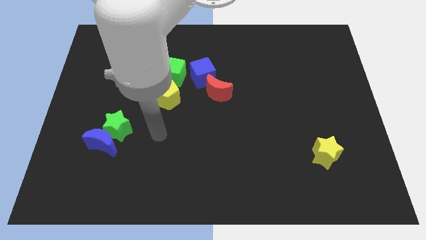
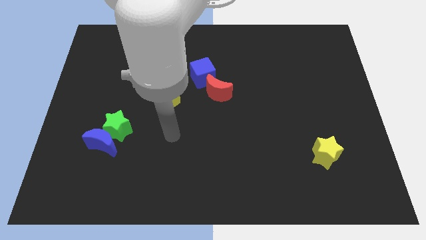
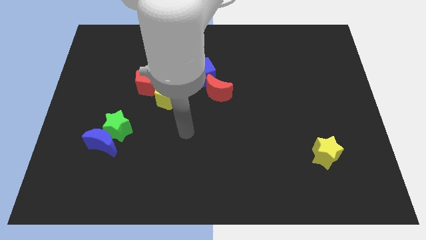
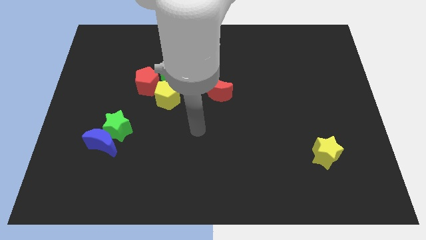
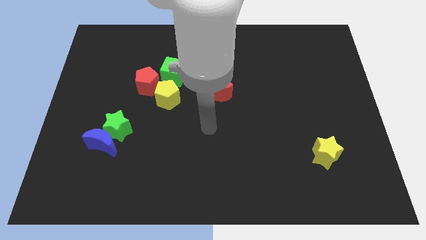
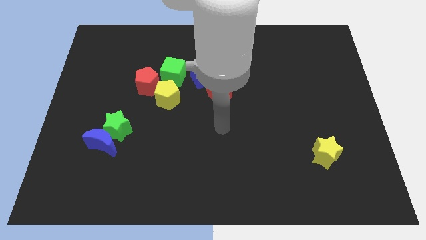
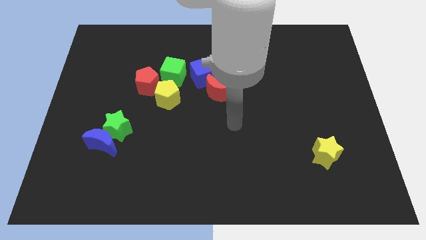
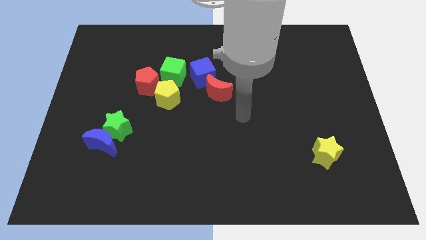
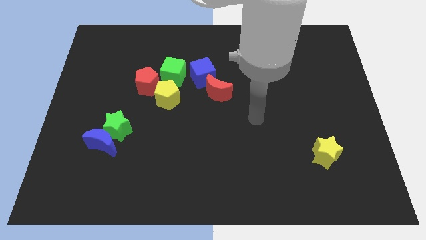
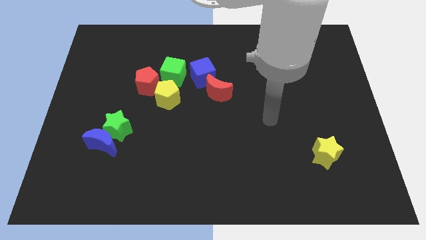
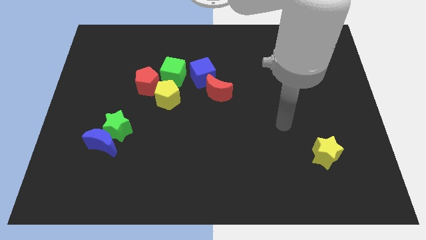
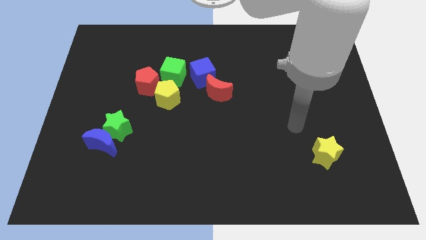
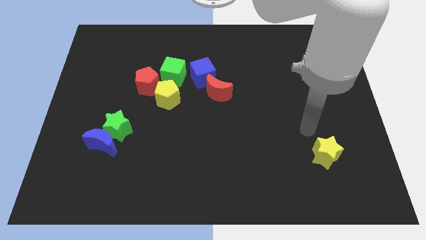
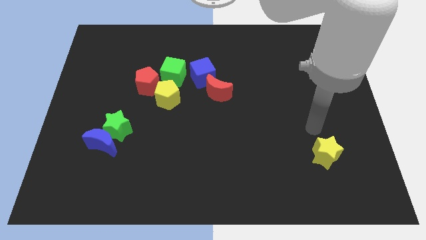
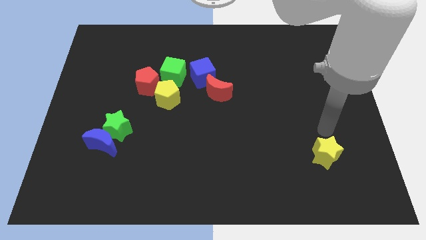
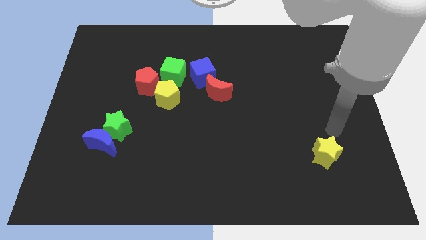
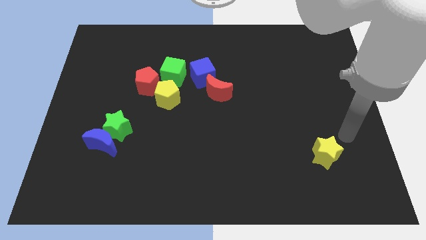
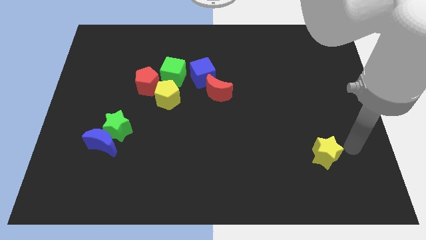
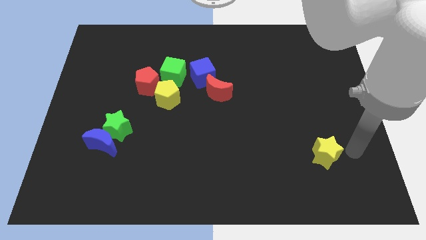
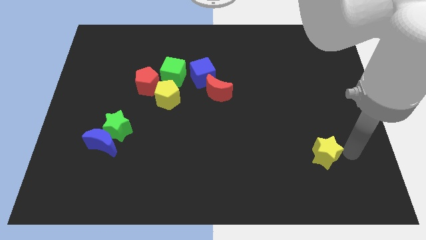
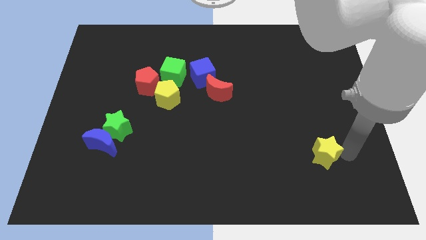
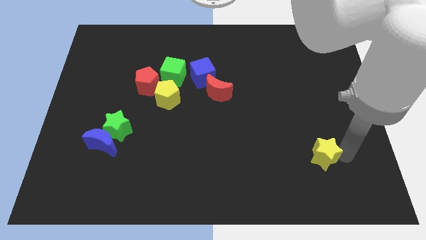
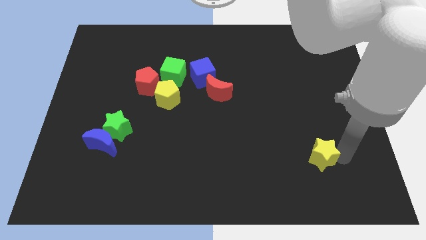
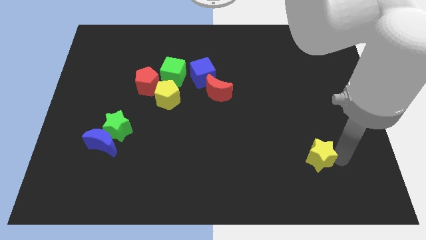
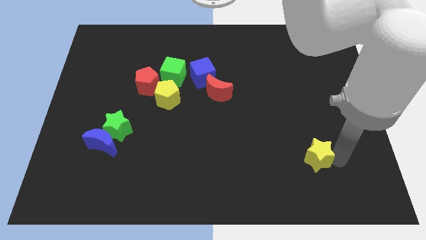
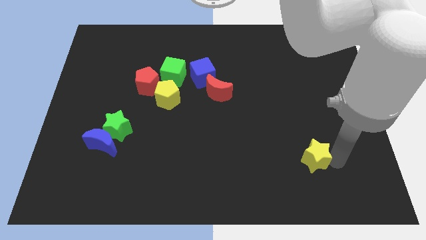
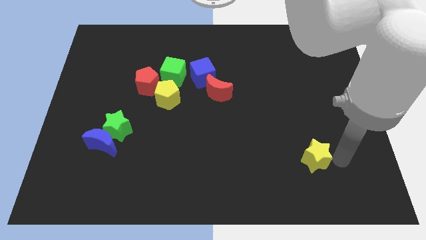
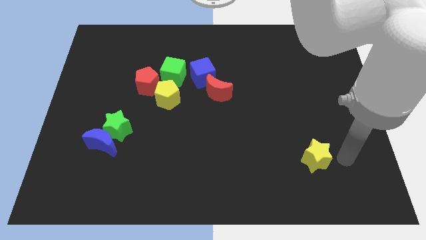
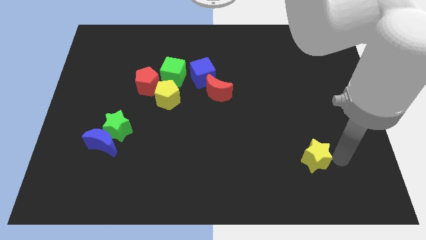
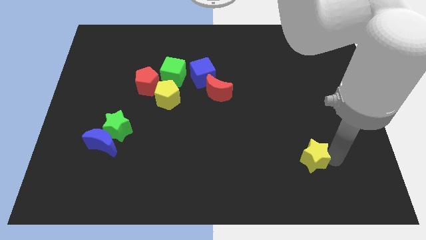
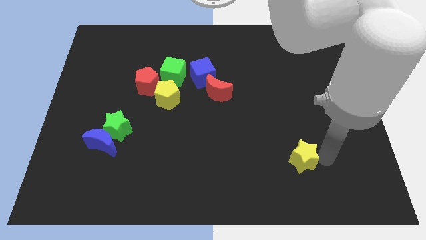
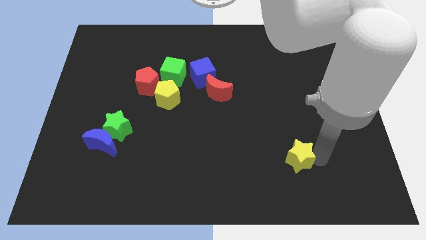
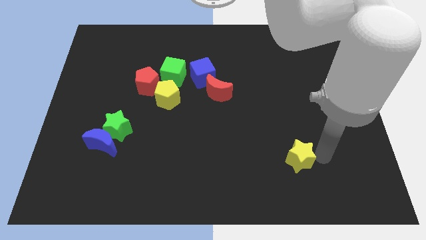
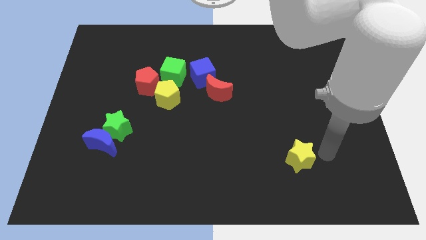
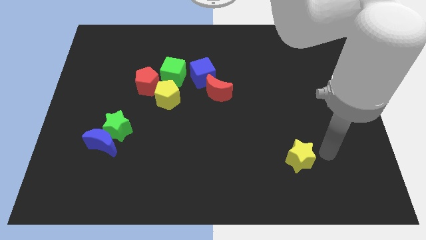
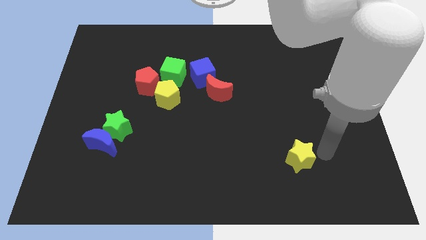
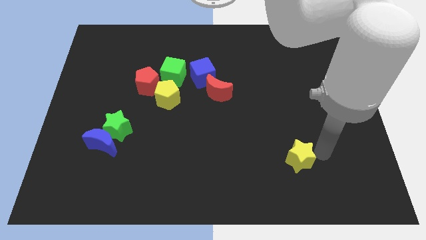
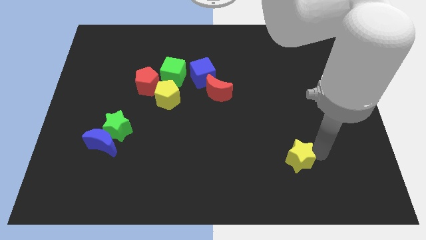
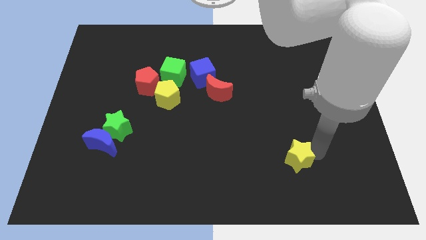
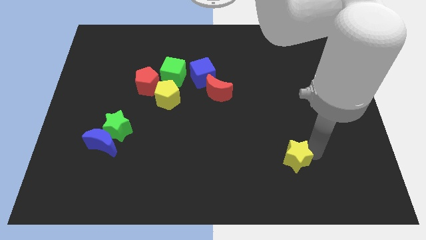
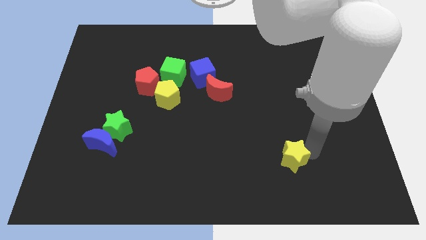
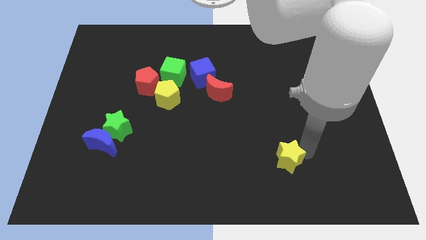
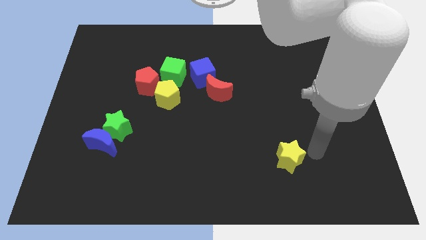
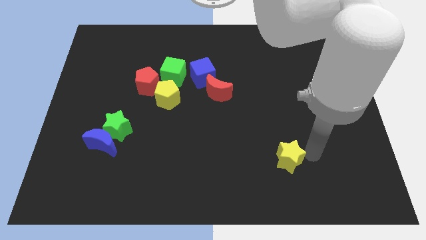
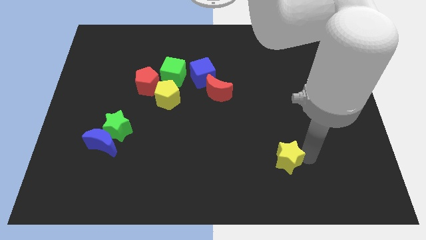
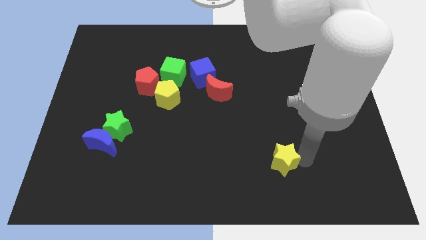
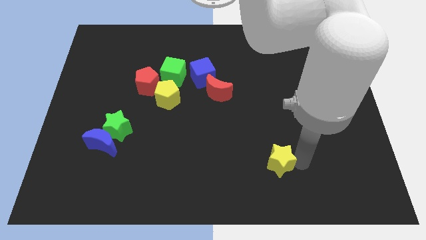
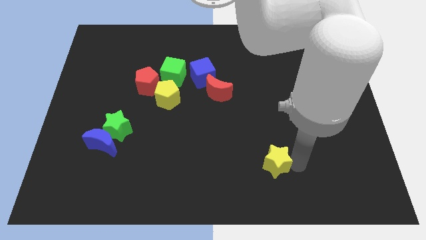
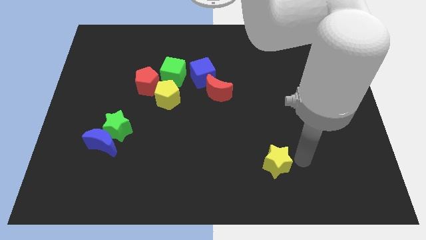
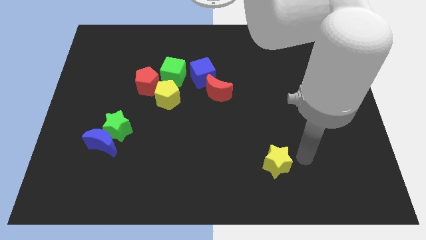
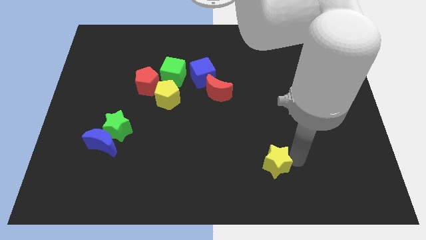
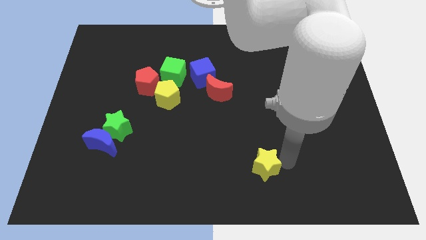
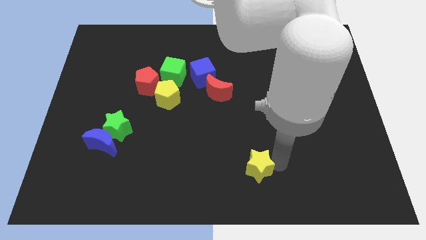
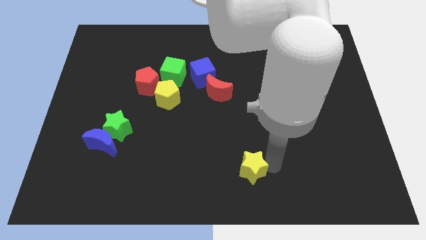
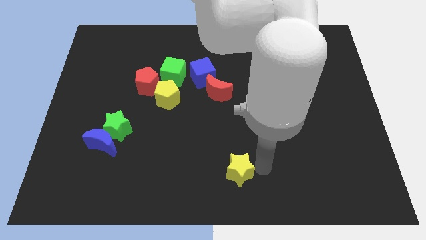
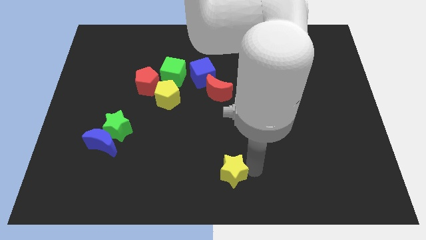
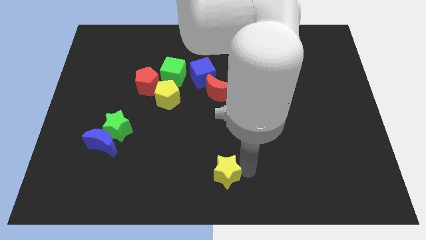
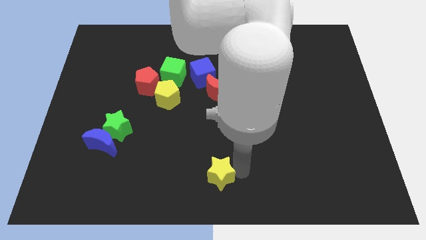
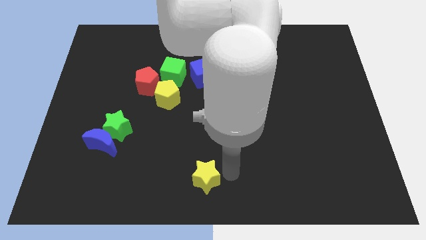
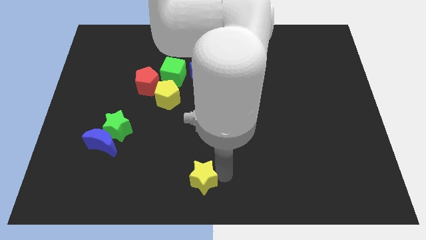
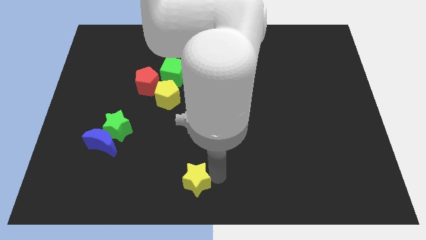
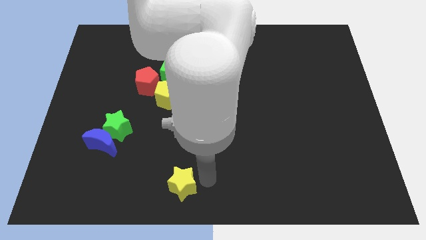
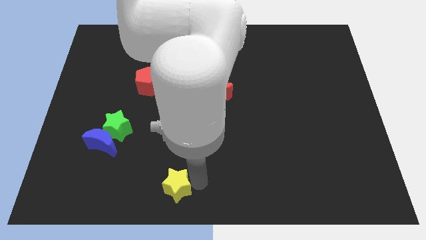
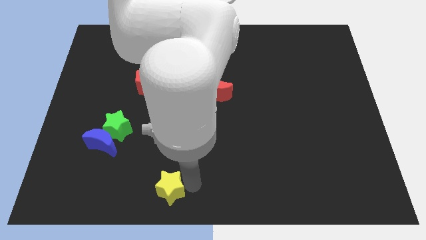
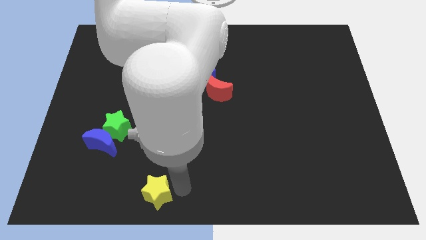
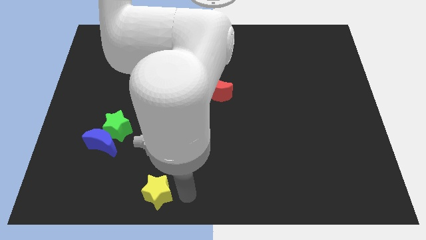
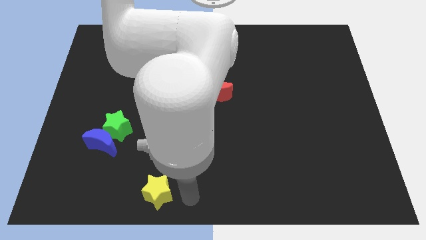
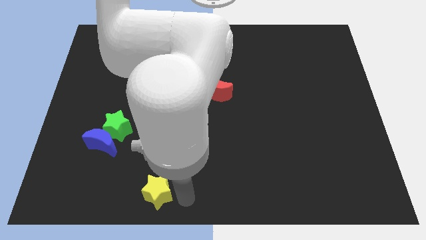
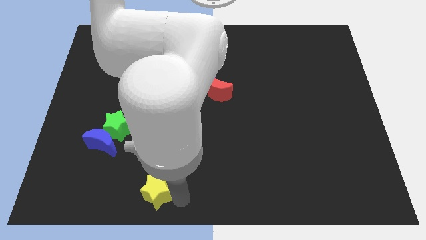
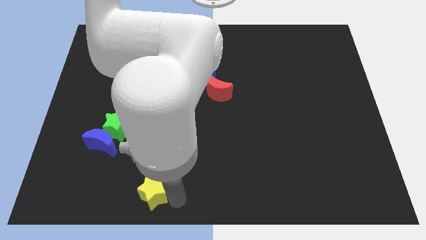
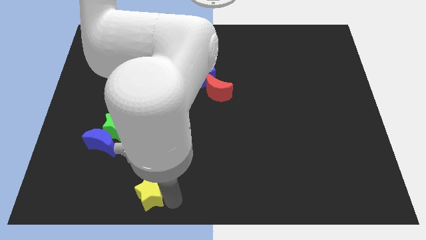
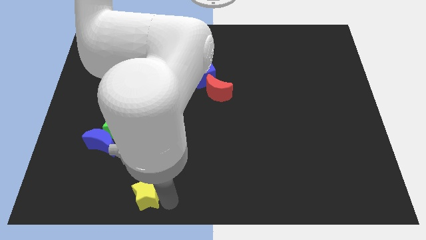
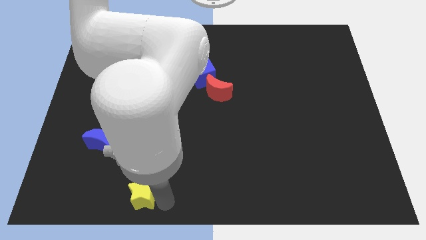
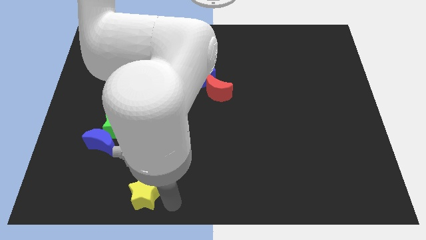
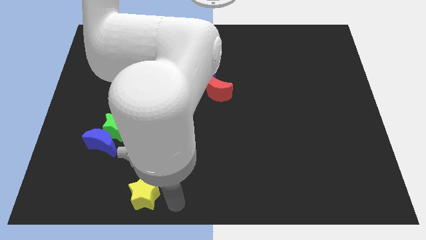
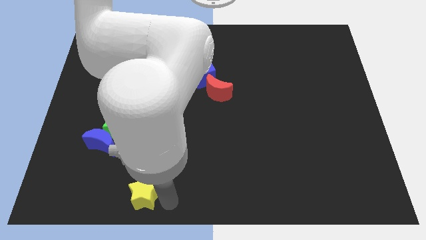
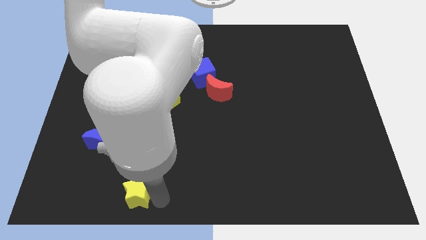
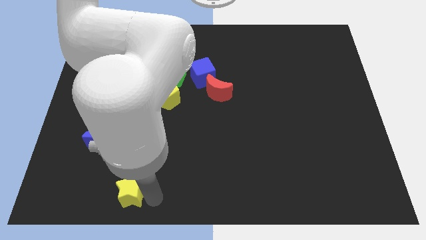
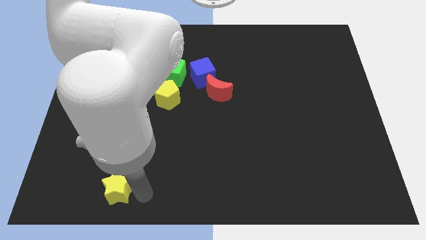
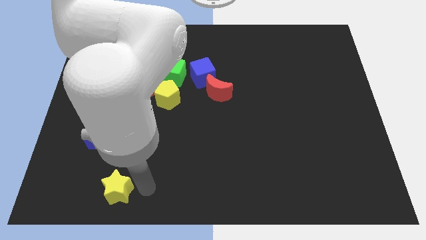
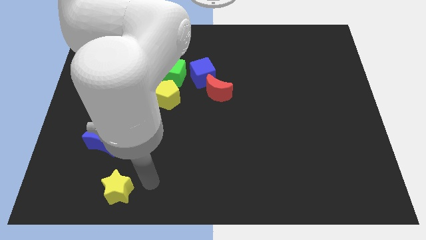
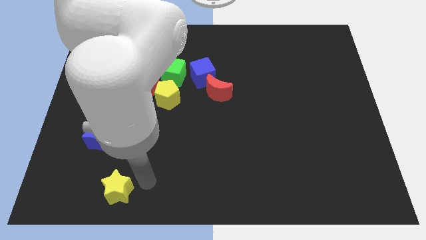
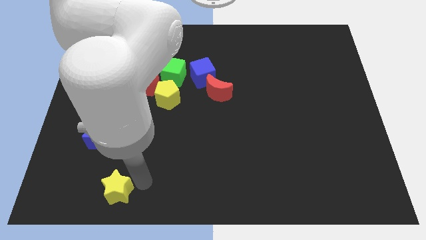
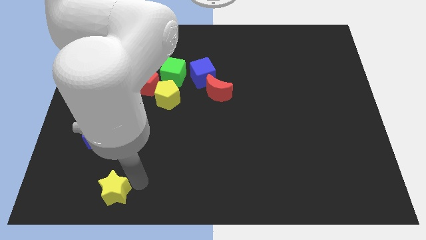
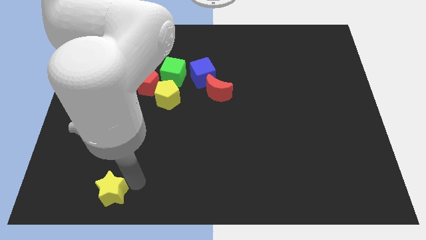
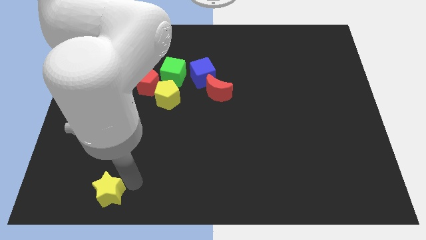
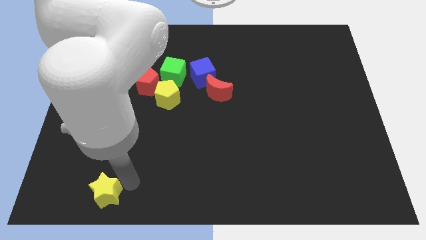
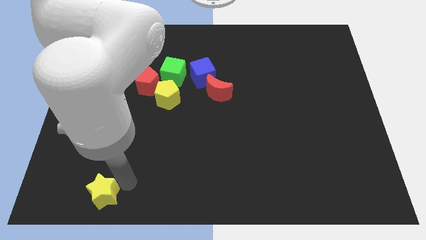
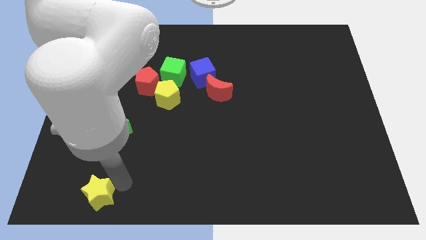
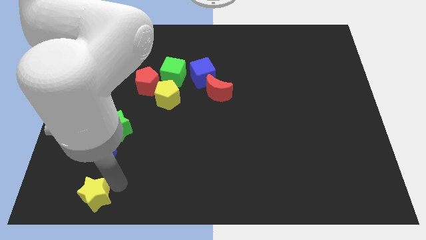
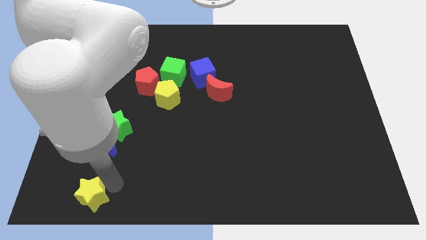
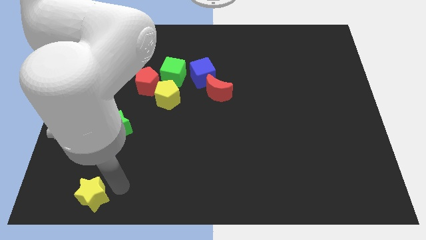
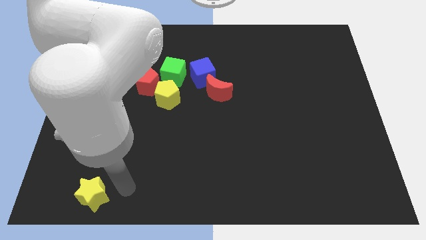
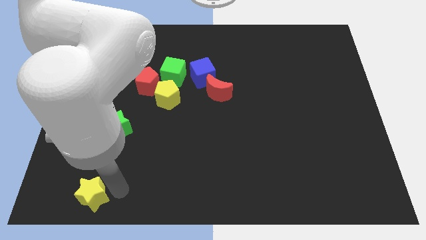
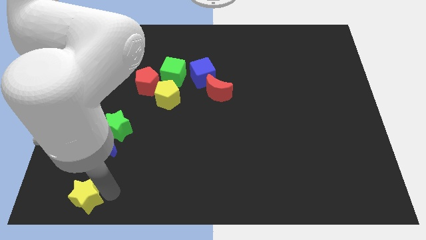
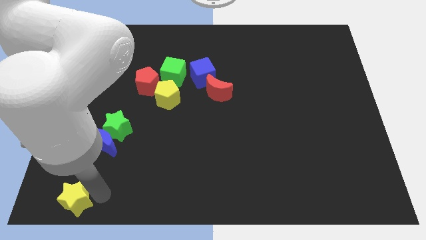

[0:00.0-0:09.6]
move the yellow star to the lower left corner
